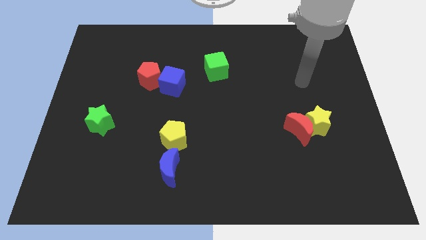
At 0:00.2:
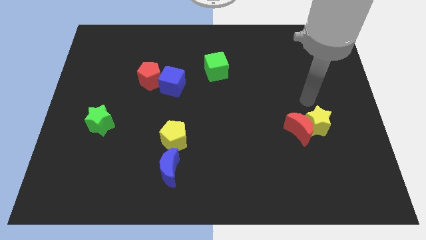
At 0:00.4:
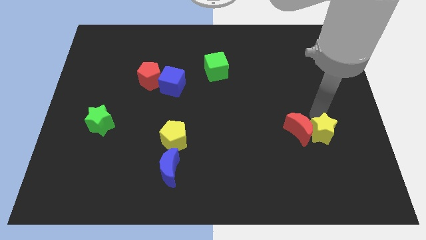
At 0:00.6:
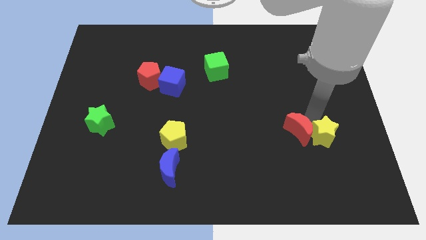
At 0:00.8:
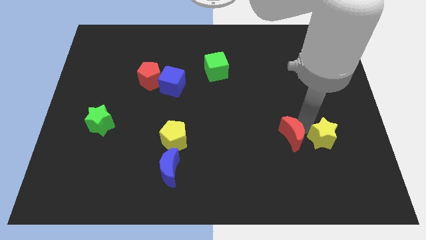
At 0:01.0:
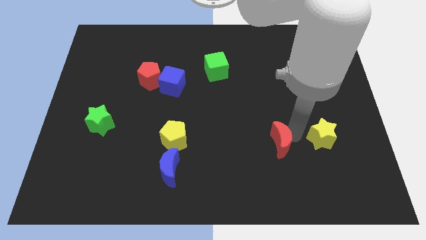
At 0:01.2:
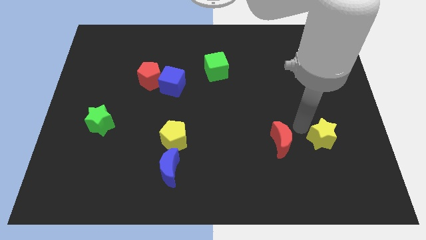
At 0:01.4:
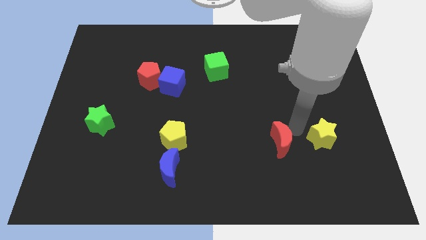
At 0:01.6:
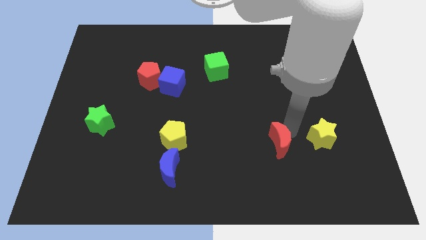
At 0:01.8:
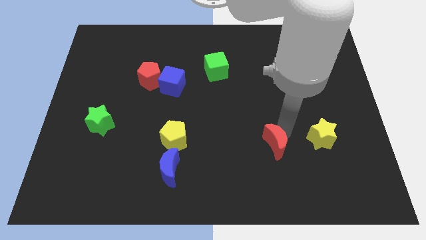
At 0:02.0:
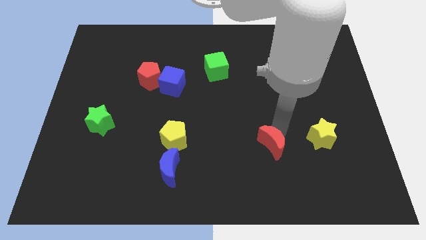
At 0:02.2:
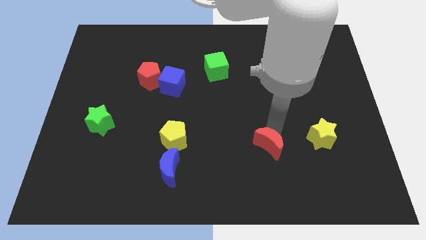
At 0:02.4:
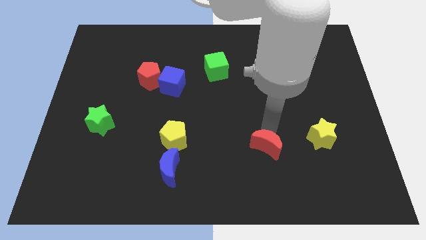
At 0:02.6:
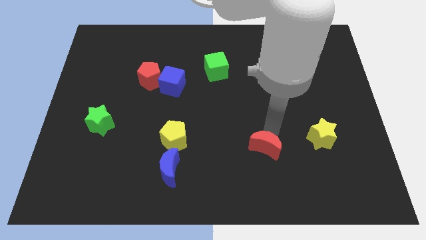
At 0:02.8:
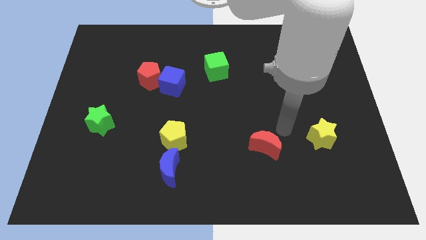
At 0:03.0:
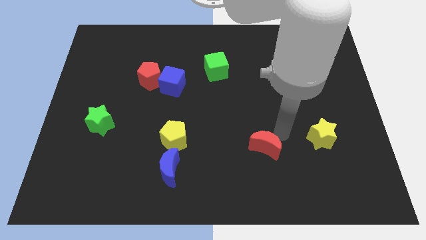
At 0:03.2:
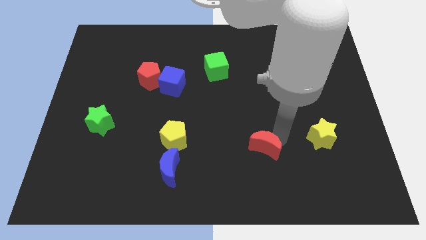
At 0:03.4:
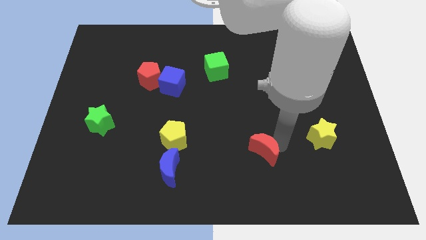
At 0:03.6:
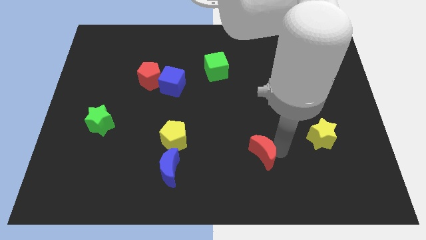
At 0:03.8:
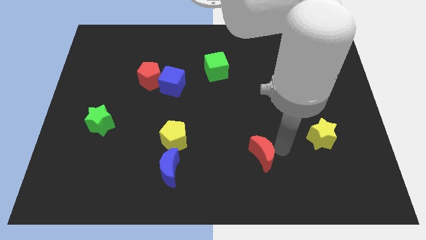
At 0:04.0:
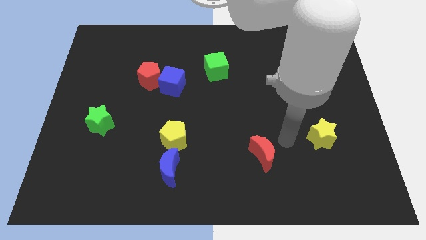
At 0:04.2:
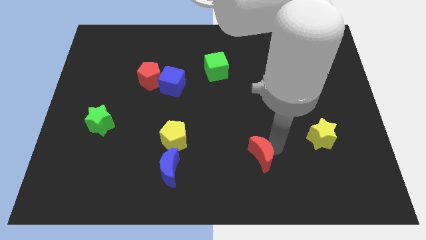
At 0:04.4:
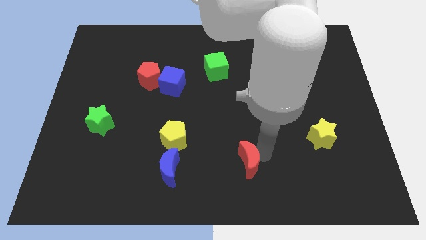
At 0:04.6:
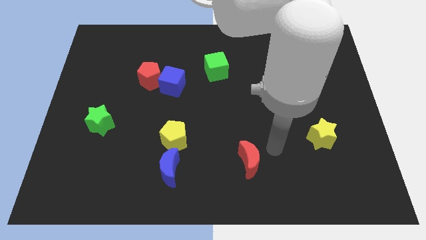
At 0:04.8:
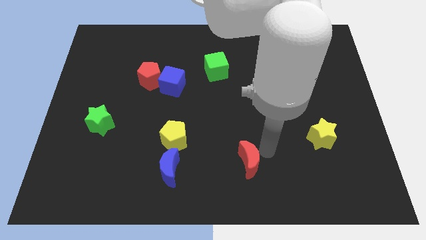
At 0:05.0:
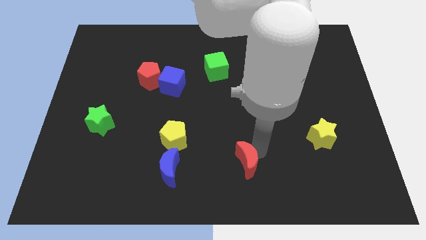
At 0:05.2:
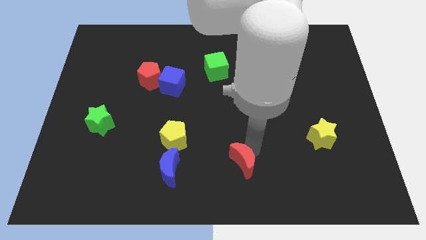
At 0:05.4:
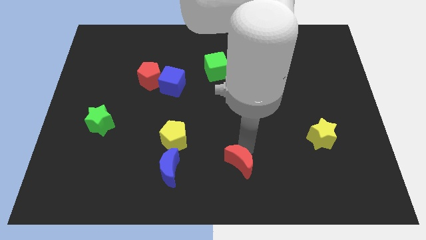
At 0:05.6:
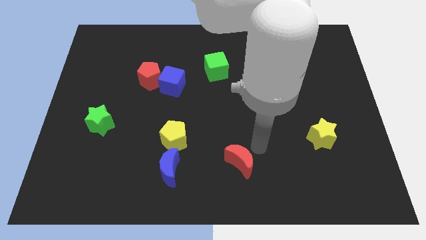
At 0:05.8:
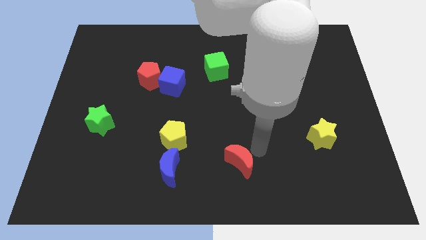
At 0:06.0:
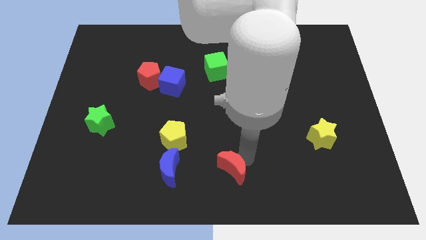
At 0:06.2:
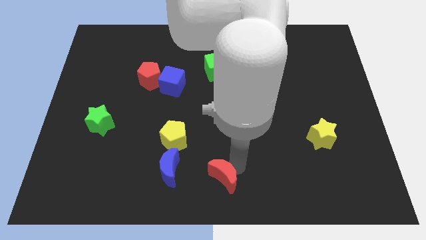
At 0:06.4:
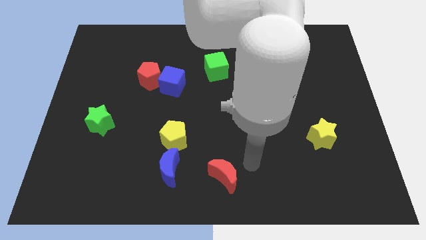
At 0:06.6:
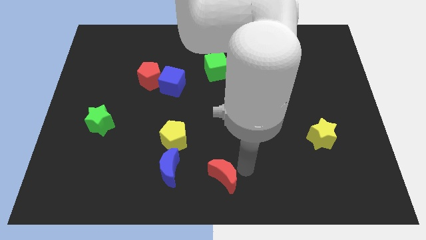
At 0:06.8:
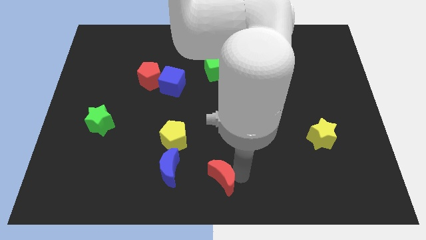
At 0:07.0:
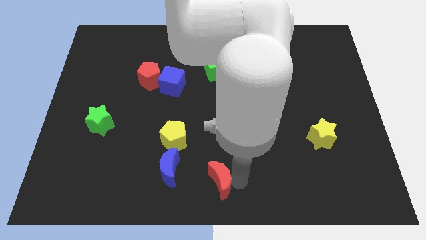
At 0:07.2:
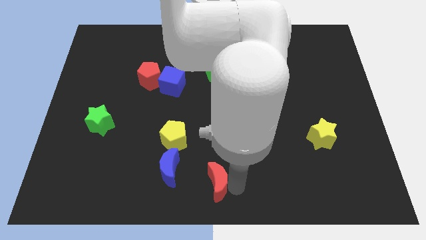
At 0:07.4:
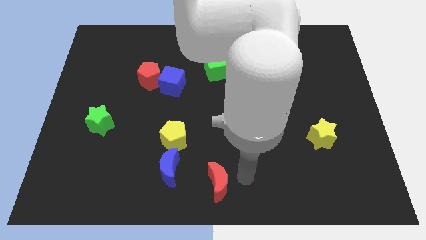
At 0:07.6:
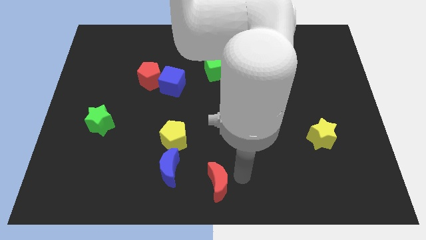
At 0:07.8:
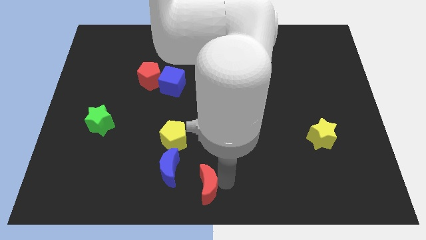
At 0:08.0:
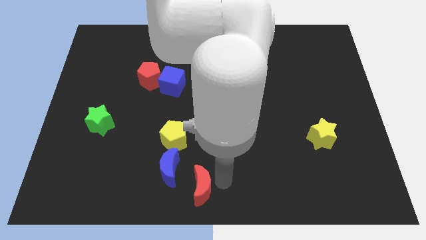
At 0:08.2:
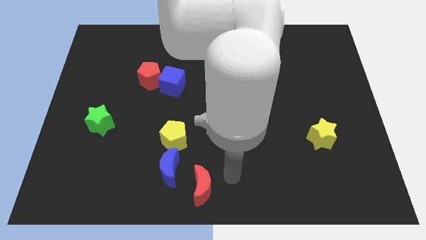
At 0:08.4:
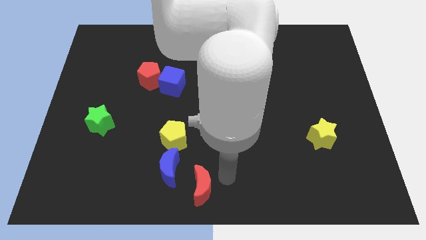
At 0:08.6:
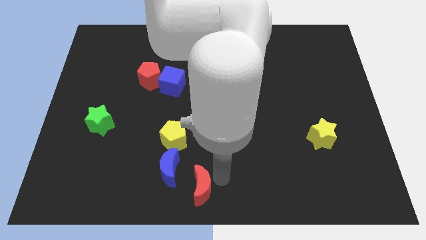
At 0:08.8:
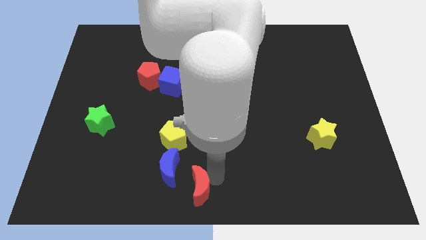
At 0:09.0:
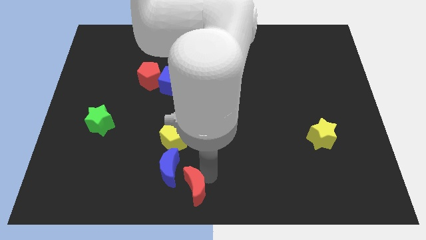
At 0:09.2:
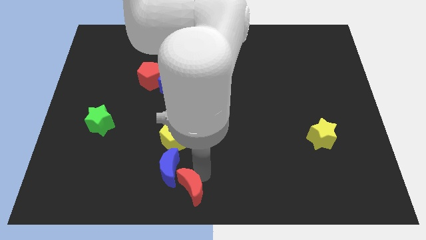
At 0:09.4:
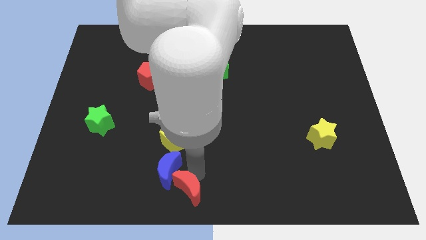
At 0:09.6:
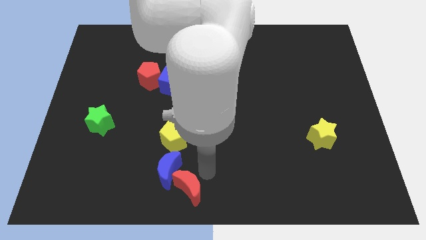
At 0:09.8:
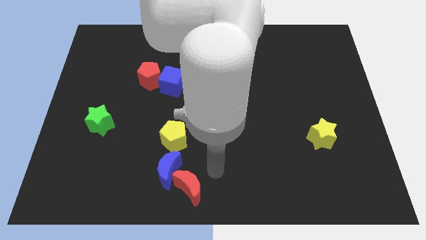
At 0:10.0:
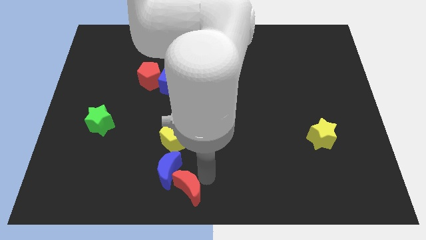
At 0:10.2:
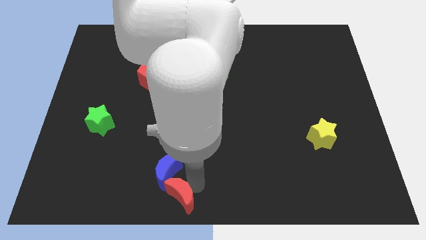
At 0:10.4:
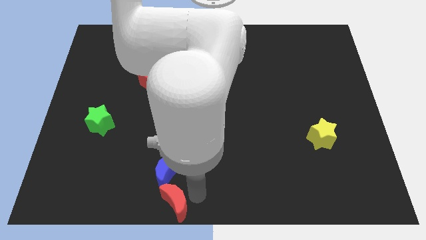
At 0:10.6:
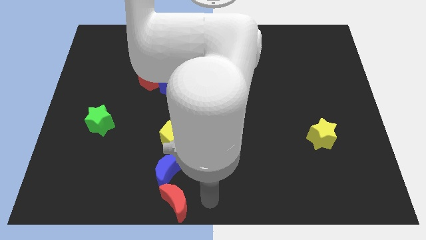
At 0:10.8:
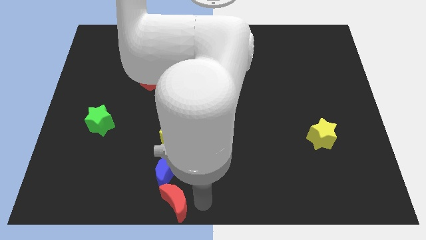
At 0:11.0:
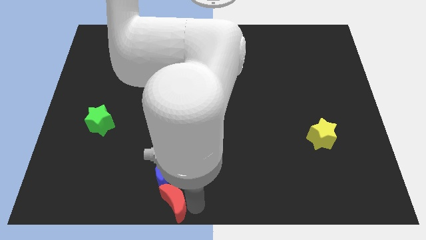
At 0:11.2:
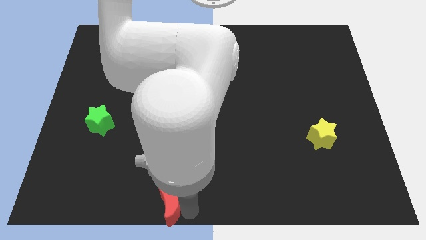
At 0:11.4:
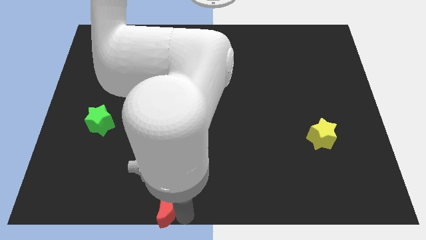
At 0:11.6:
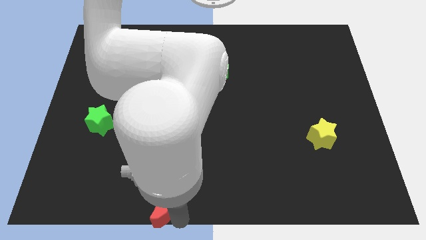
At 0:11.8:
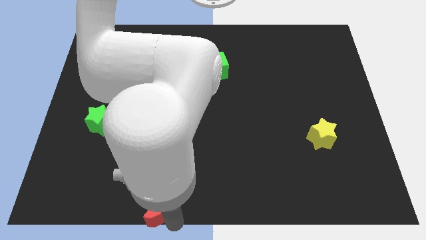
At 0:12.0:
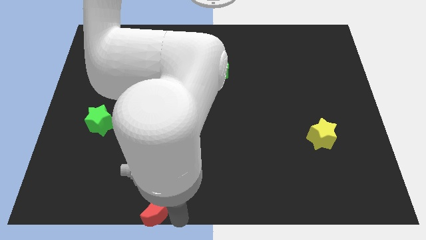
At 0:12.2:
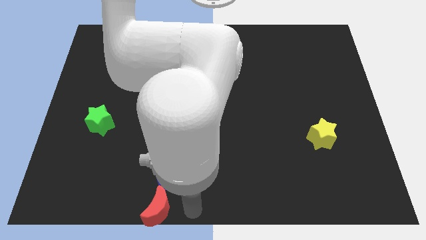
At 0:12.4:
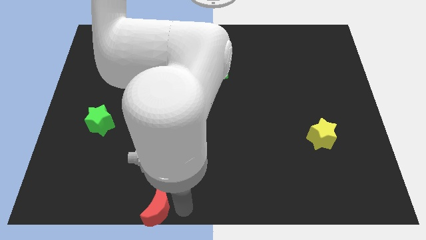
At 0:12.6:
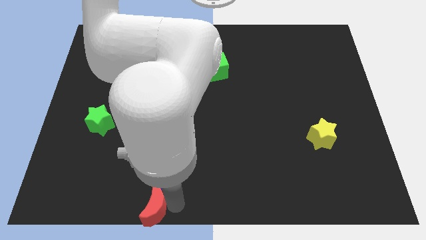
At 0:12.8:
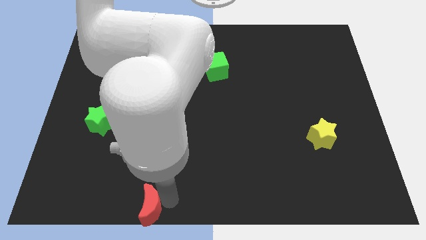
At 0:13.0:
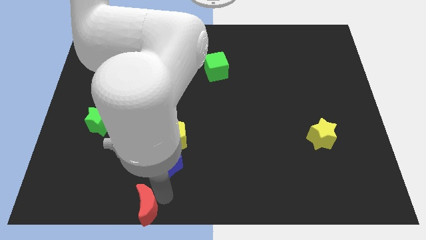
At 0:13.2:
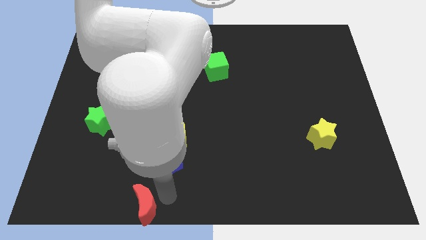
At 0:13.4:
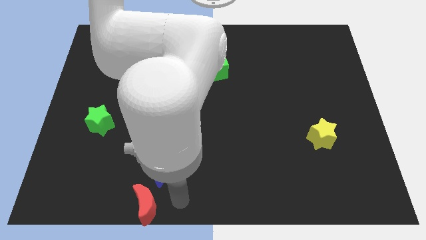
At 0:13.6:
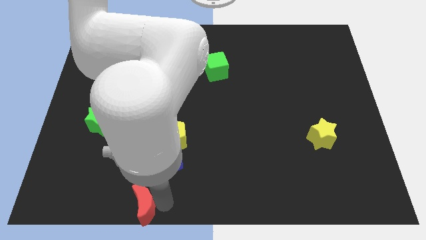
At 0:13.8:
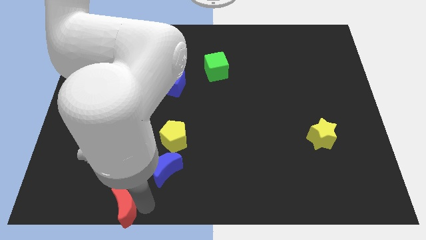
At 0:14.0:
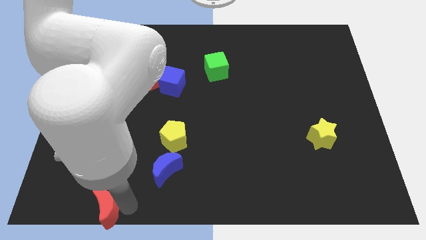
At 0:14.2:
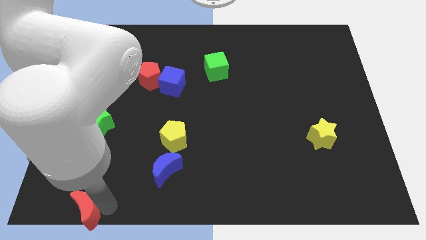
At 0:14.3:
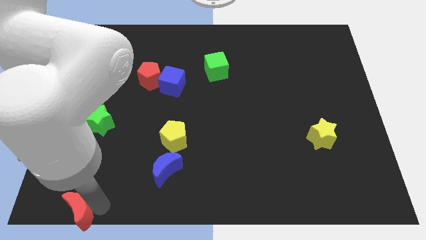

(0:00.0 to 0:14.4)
put the red moon to the lower left corner

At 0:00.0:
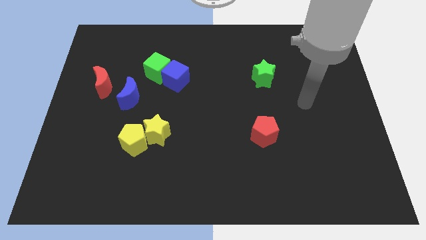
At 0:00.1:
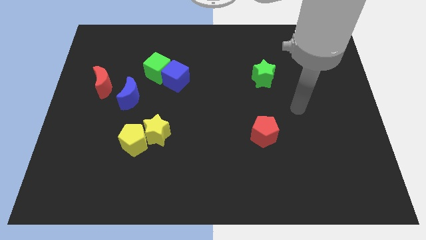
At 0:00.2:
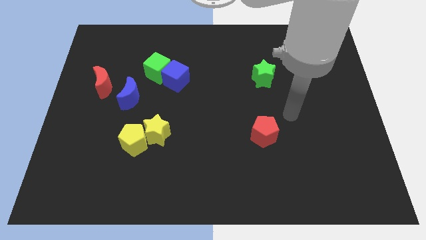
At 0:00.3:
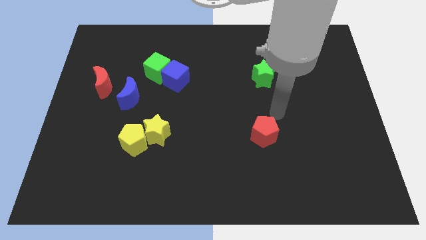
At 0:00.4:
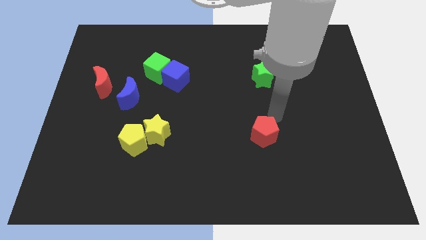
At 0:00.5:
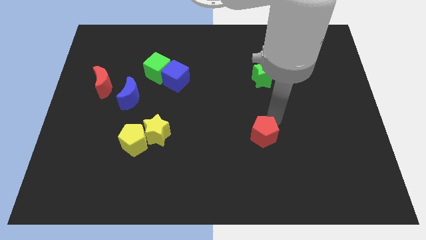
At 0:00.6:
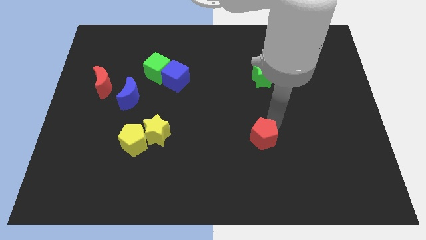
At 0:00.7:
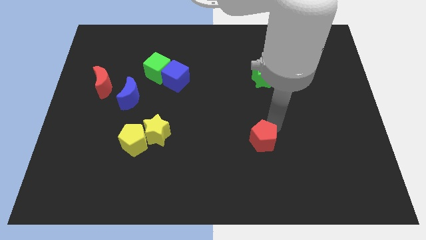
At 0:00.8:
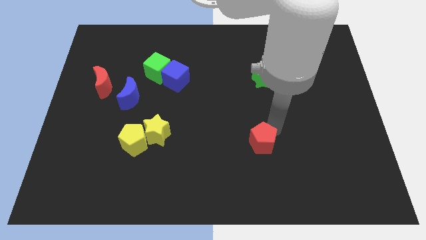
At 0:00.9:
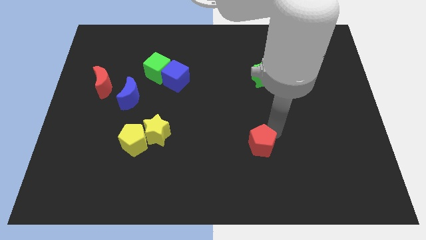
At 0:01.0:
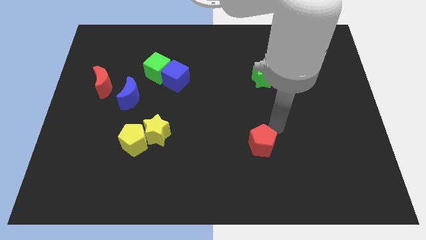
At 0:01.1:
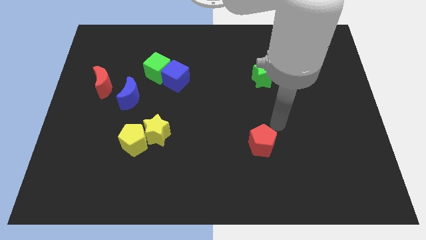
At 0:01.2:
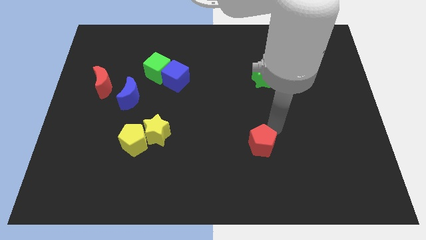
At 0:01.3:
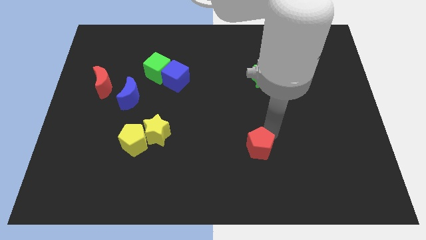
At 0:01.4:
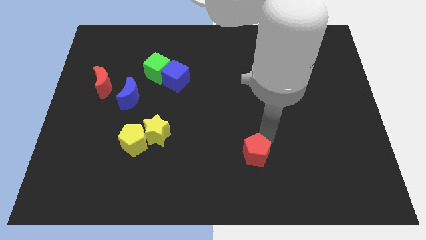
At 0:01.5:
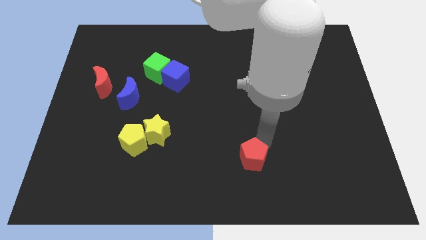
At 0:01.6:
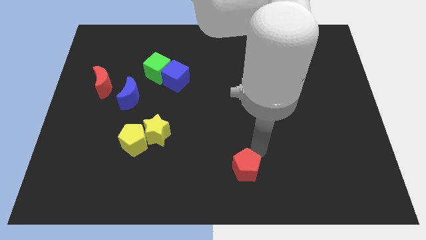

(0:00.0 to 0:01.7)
slide the red pentagon to the bottom side
